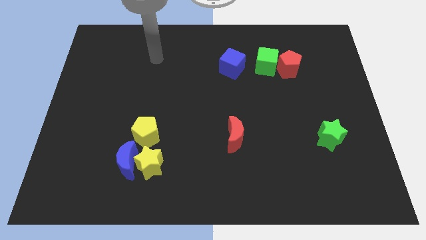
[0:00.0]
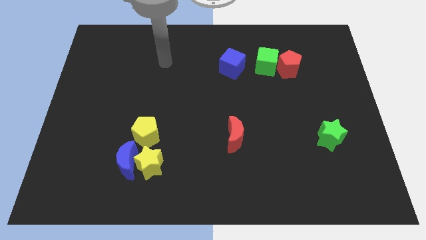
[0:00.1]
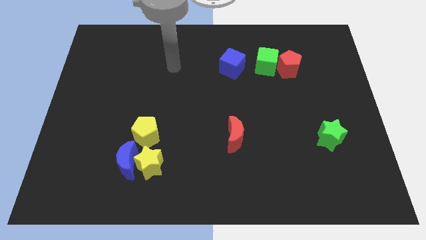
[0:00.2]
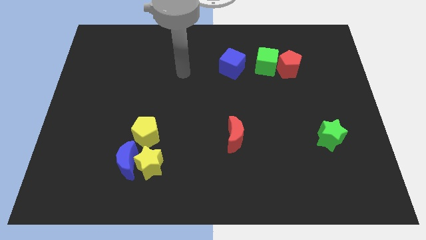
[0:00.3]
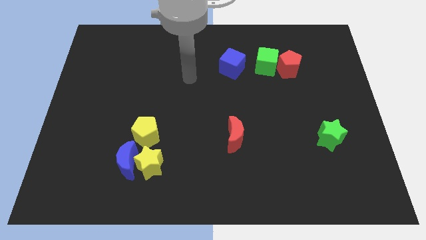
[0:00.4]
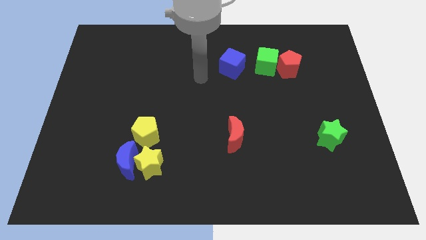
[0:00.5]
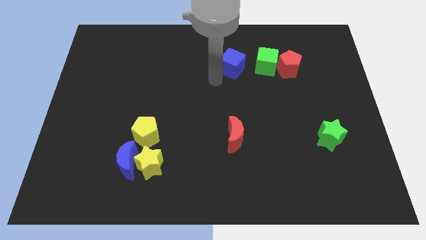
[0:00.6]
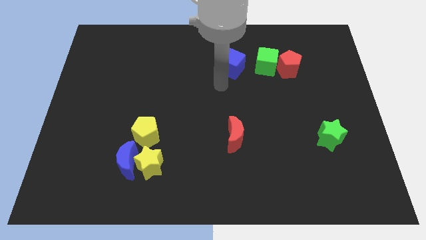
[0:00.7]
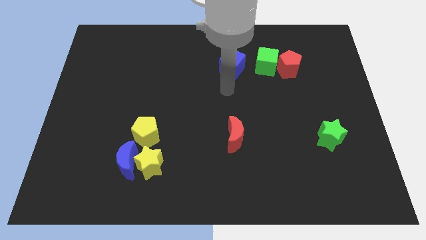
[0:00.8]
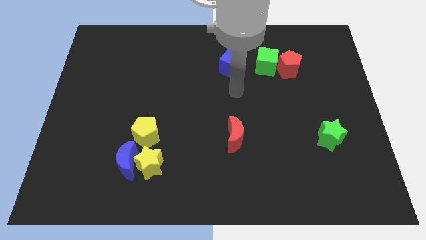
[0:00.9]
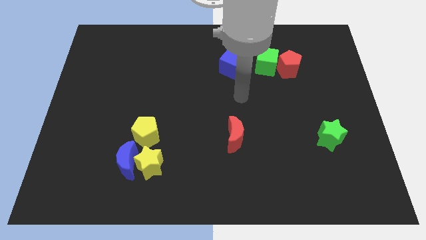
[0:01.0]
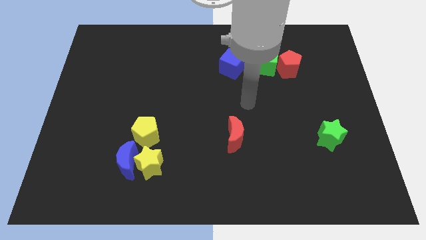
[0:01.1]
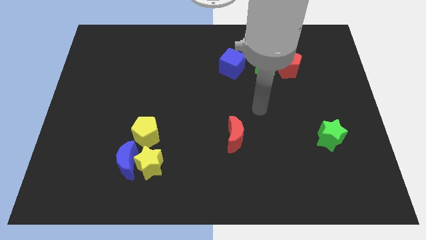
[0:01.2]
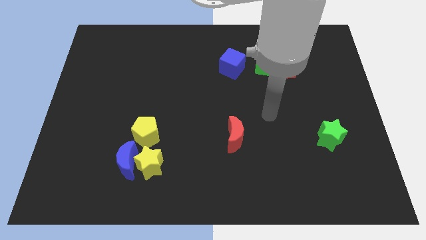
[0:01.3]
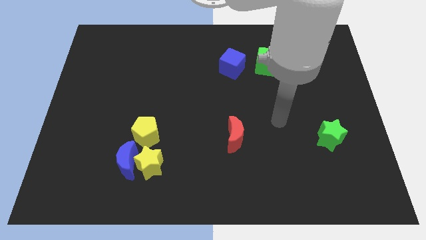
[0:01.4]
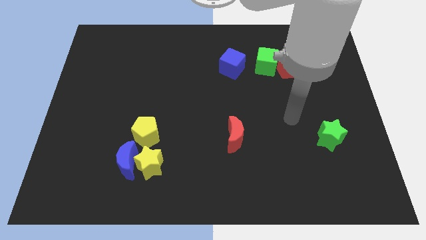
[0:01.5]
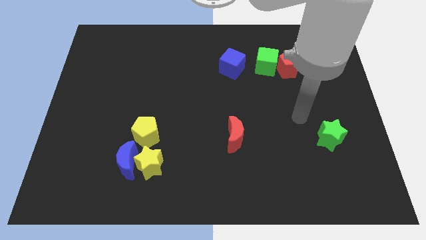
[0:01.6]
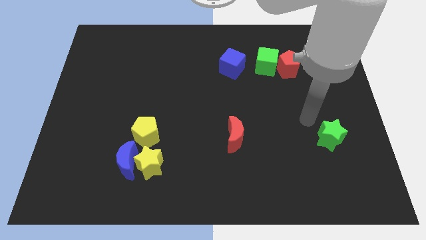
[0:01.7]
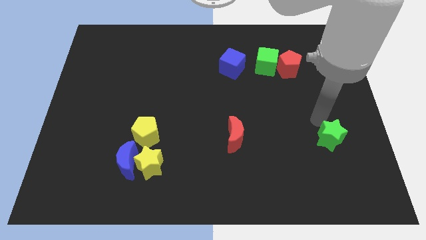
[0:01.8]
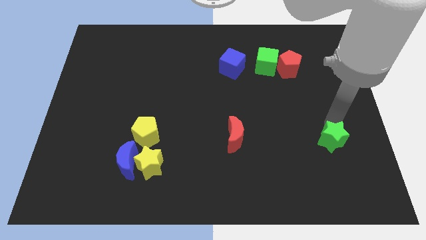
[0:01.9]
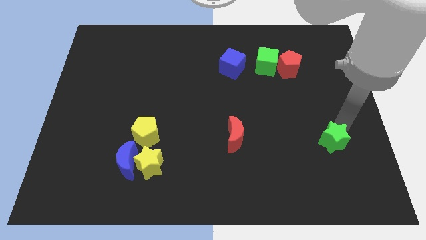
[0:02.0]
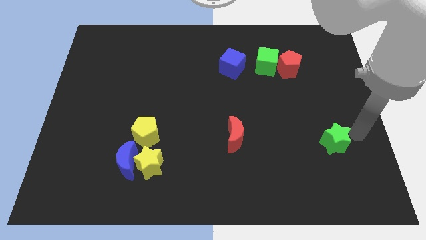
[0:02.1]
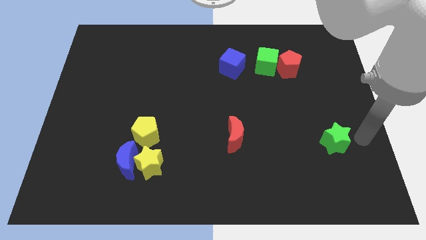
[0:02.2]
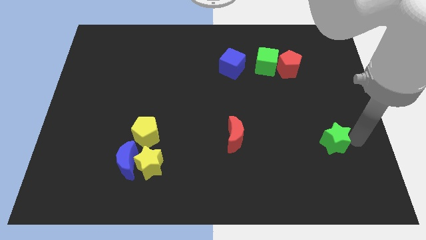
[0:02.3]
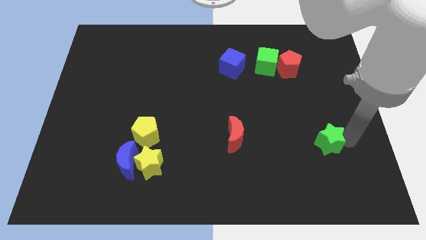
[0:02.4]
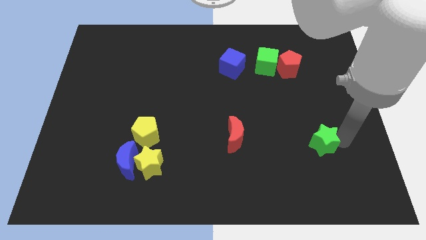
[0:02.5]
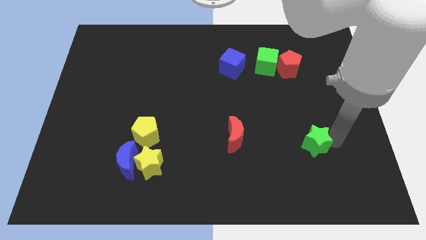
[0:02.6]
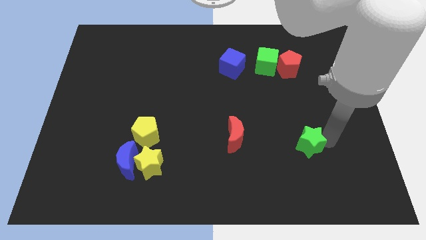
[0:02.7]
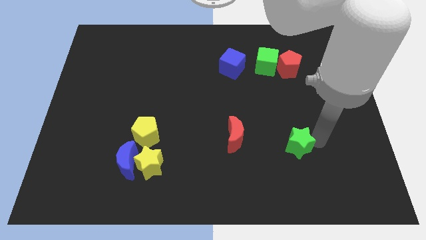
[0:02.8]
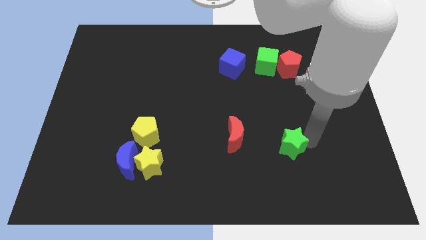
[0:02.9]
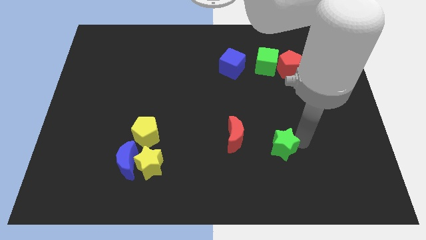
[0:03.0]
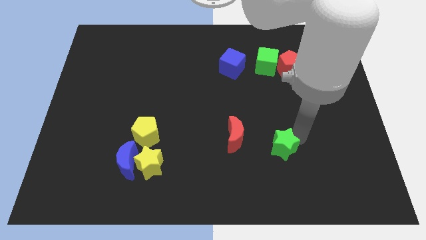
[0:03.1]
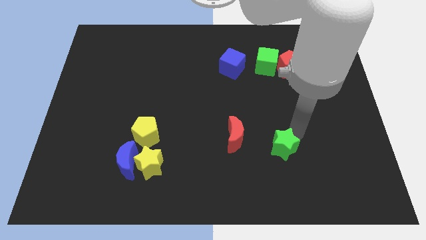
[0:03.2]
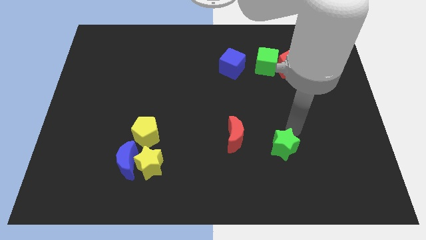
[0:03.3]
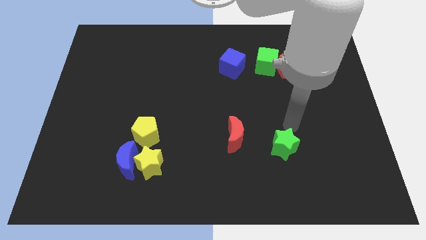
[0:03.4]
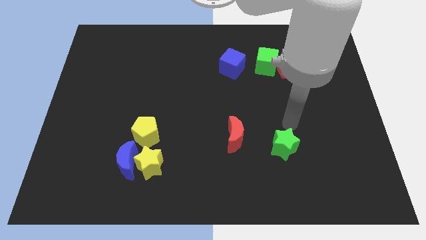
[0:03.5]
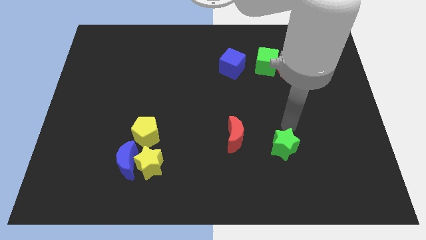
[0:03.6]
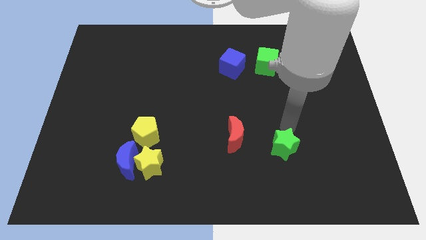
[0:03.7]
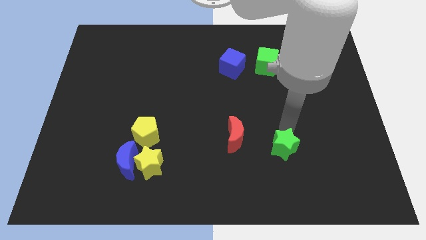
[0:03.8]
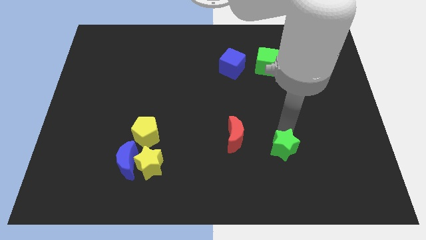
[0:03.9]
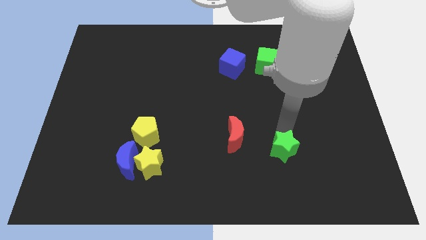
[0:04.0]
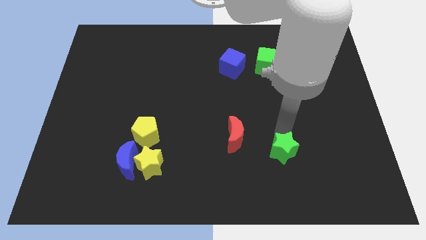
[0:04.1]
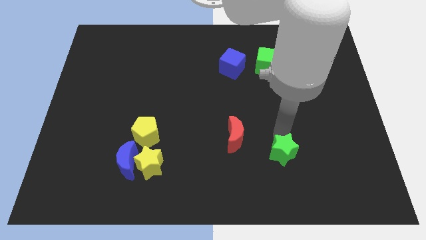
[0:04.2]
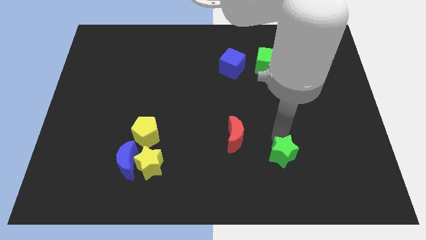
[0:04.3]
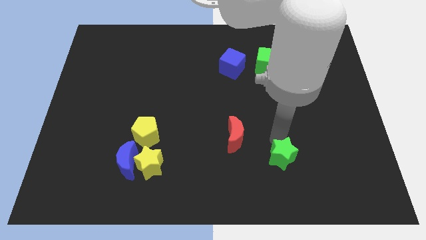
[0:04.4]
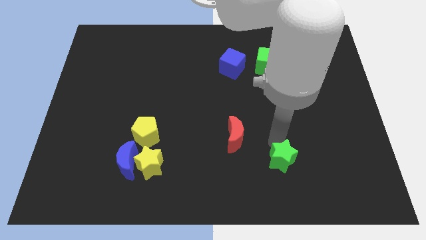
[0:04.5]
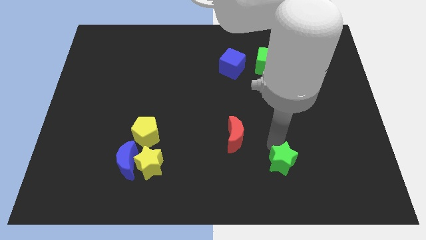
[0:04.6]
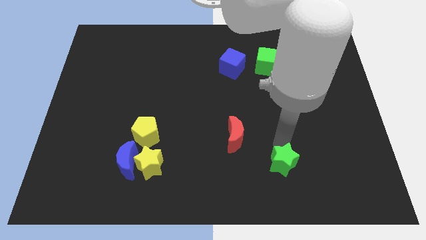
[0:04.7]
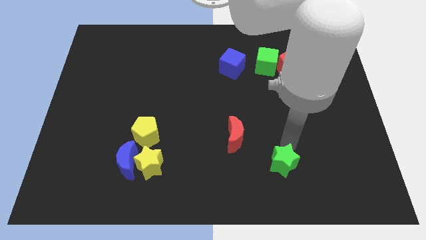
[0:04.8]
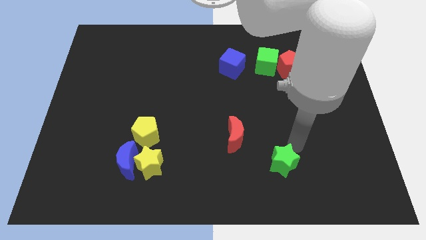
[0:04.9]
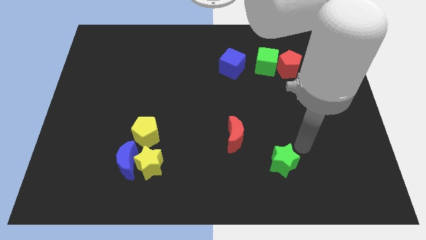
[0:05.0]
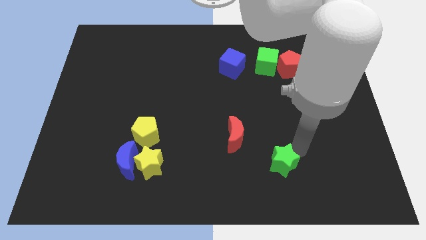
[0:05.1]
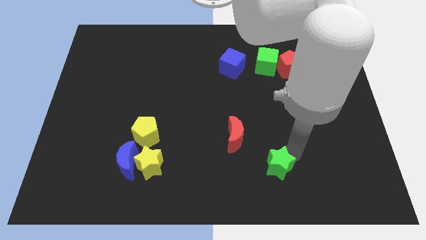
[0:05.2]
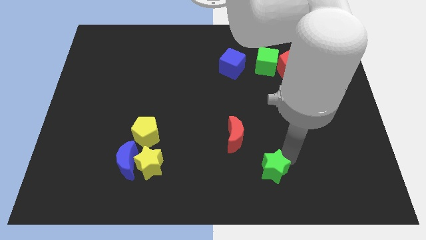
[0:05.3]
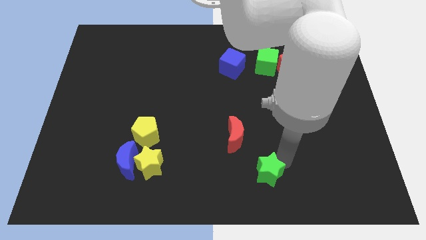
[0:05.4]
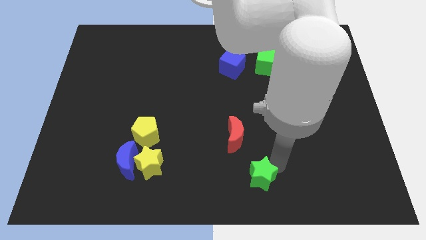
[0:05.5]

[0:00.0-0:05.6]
push the green star to the bottom side

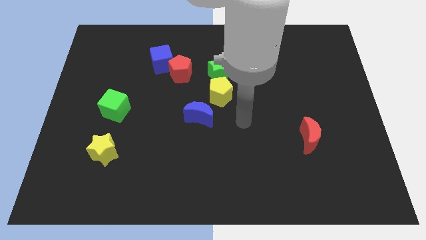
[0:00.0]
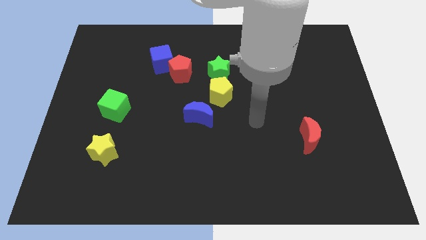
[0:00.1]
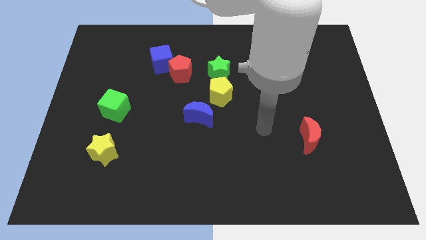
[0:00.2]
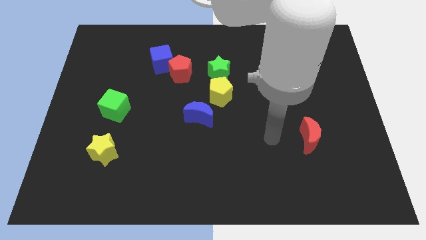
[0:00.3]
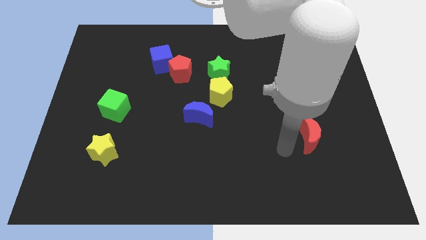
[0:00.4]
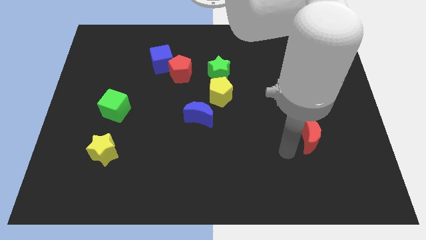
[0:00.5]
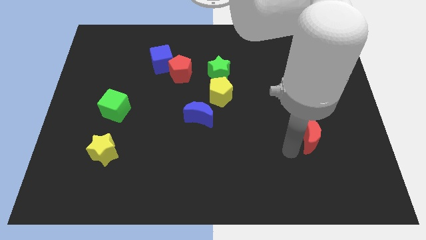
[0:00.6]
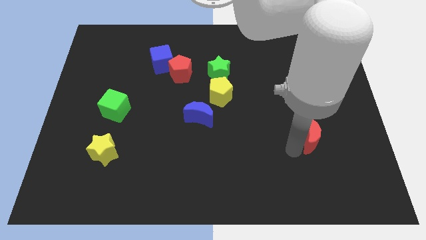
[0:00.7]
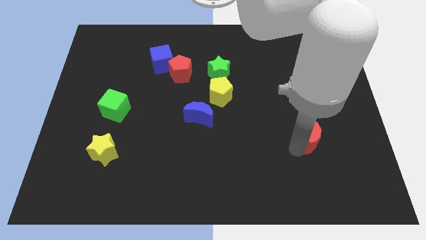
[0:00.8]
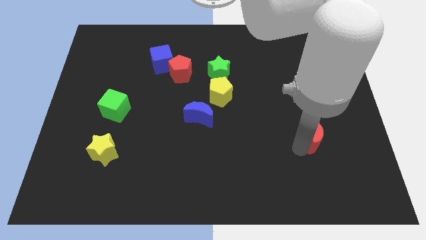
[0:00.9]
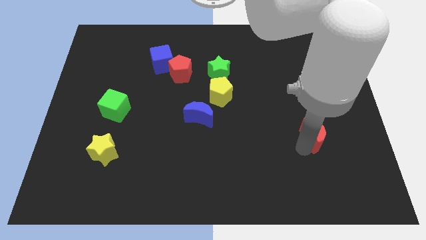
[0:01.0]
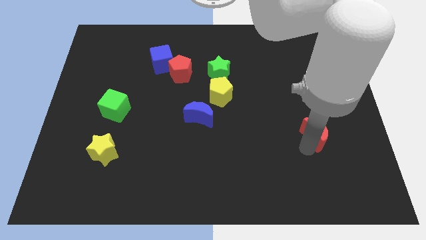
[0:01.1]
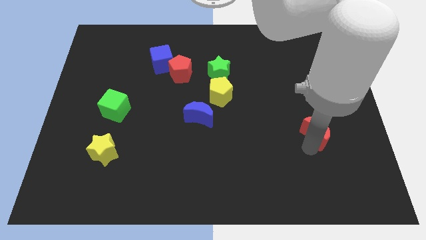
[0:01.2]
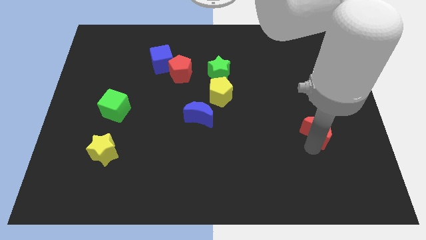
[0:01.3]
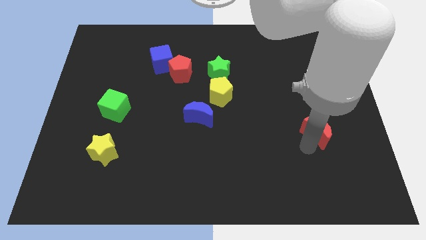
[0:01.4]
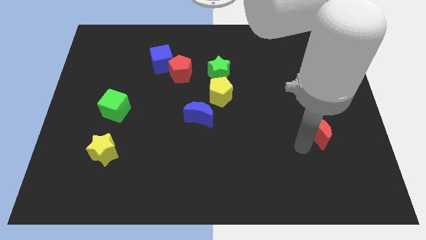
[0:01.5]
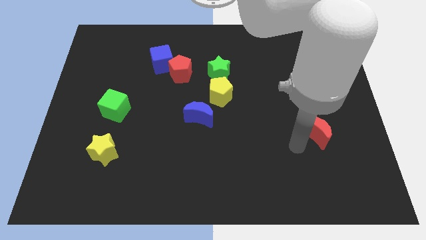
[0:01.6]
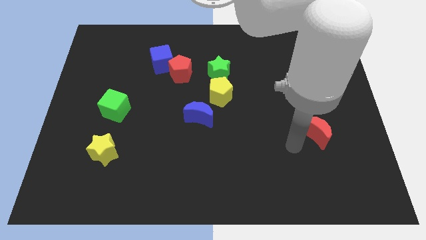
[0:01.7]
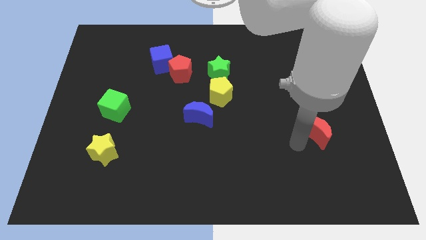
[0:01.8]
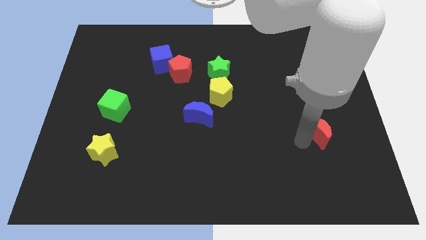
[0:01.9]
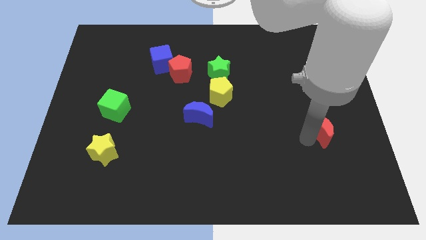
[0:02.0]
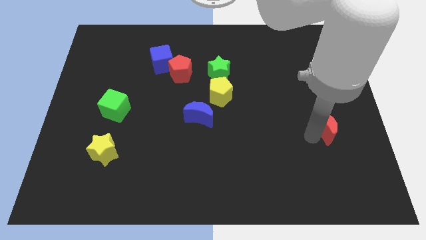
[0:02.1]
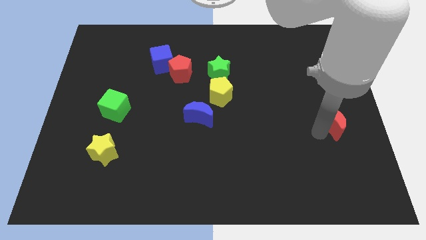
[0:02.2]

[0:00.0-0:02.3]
slide the red moon to the right side of the board
